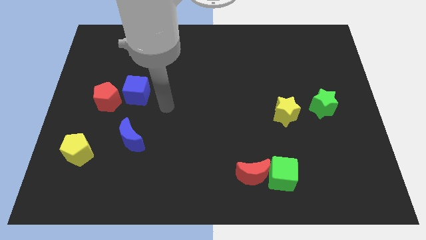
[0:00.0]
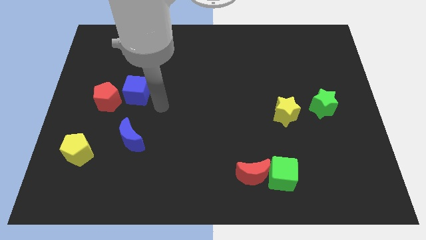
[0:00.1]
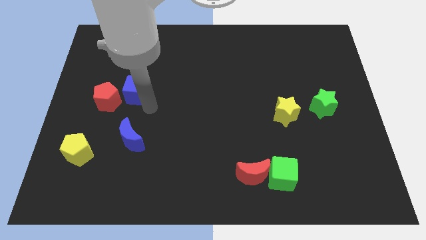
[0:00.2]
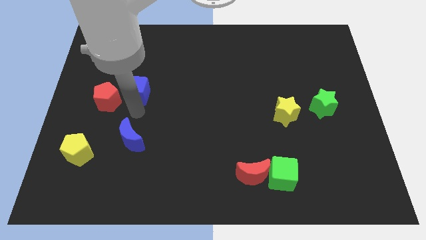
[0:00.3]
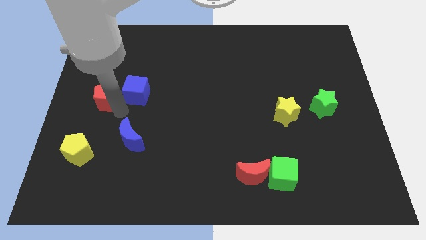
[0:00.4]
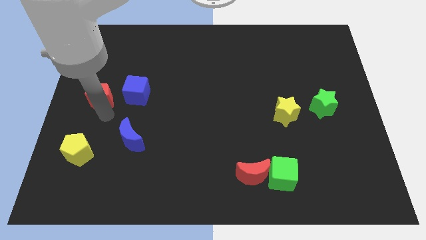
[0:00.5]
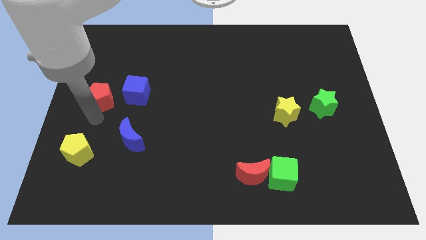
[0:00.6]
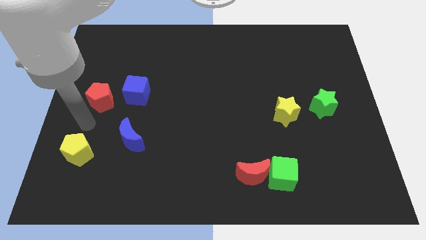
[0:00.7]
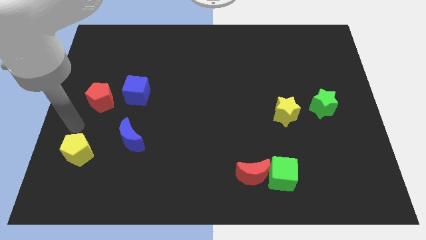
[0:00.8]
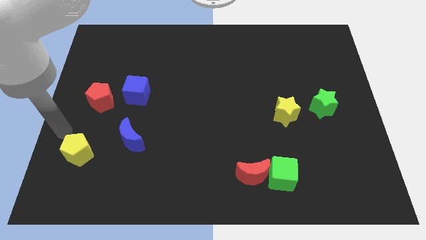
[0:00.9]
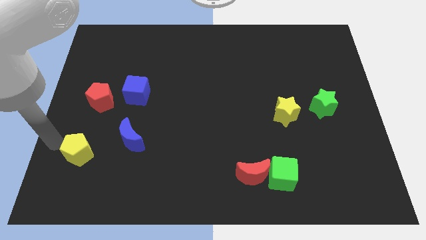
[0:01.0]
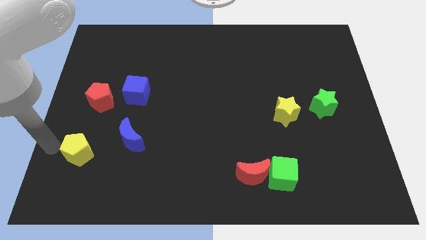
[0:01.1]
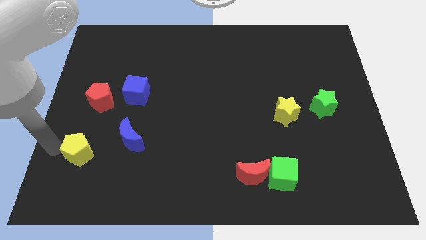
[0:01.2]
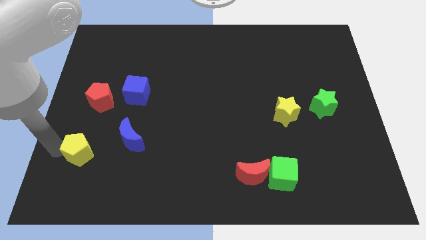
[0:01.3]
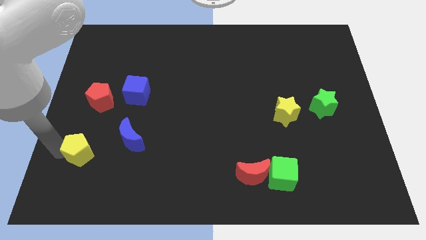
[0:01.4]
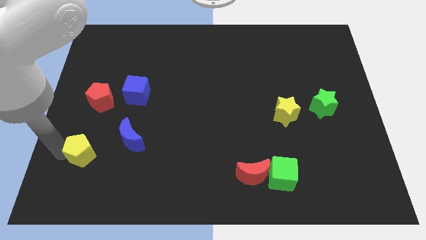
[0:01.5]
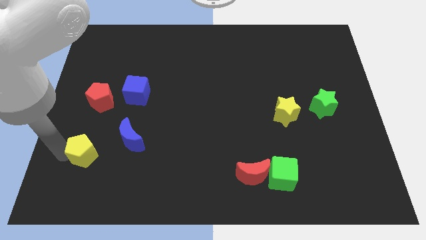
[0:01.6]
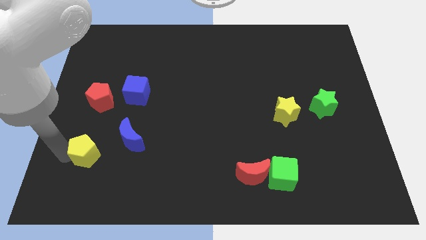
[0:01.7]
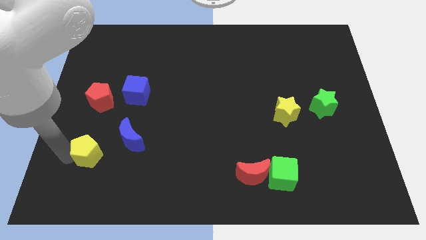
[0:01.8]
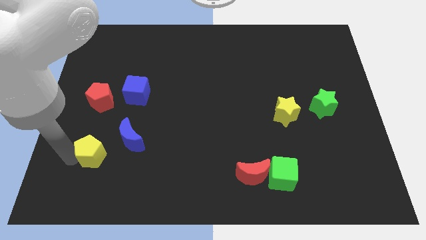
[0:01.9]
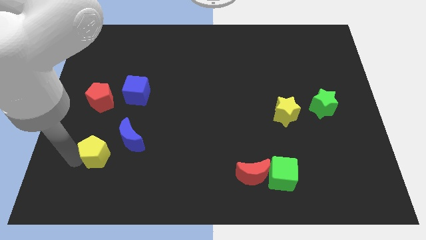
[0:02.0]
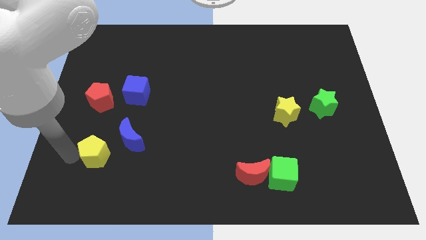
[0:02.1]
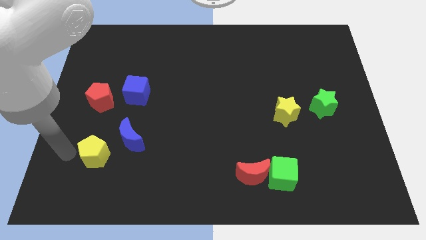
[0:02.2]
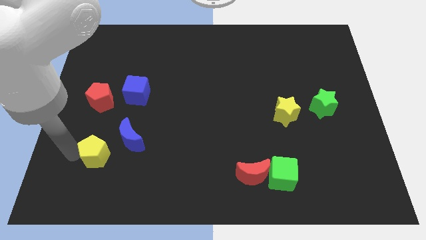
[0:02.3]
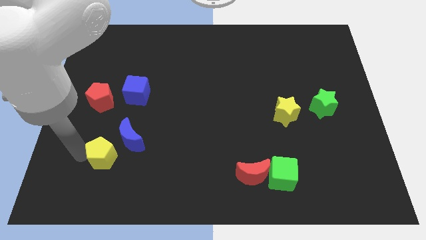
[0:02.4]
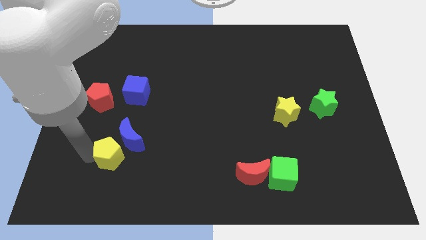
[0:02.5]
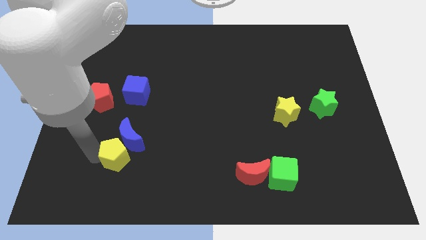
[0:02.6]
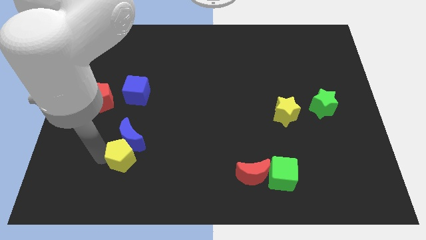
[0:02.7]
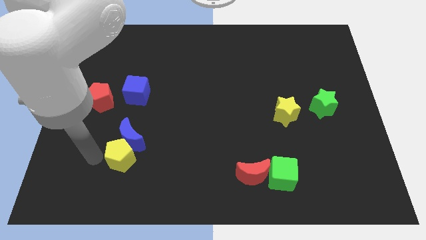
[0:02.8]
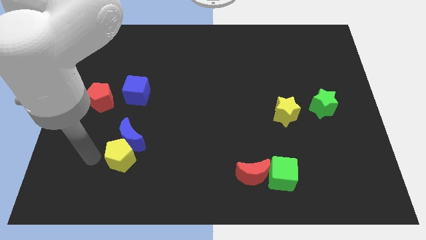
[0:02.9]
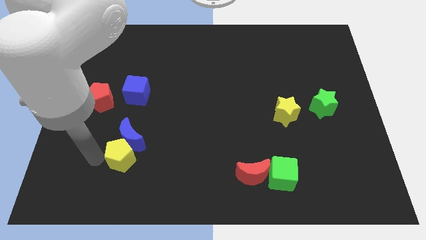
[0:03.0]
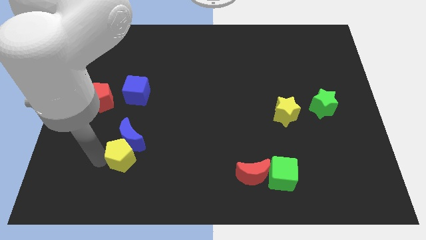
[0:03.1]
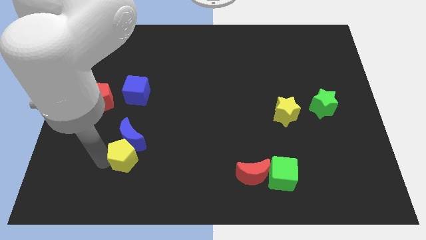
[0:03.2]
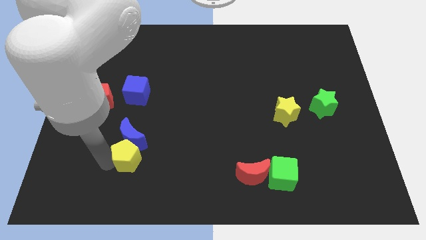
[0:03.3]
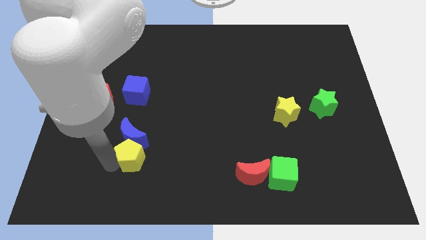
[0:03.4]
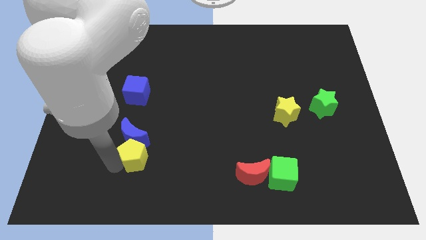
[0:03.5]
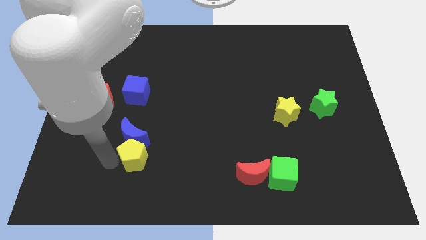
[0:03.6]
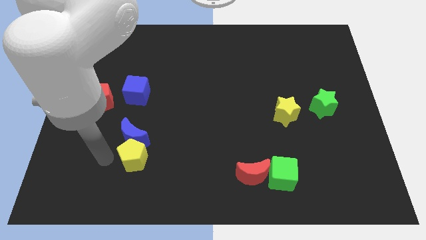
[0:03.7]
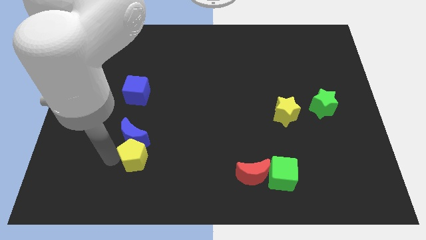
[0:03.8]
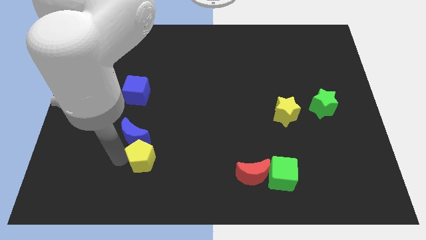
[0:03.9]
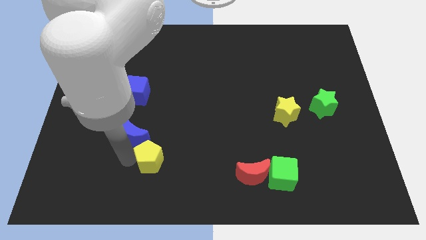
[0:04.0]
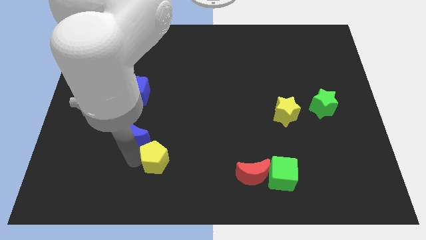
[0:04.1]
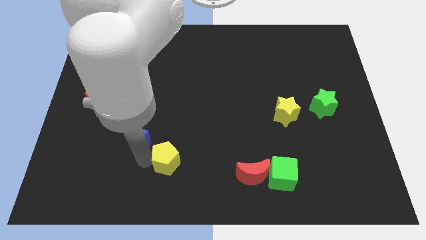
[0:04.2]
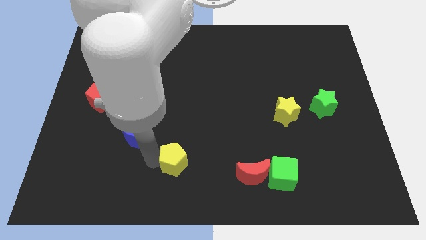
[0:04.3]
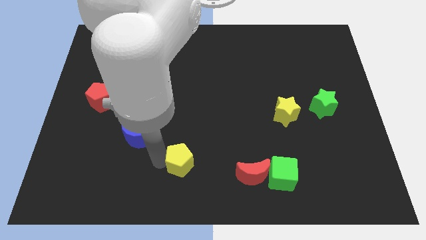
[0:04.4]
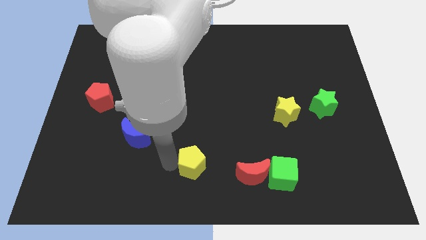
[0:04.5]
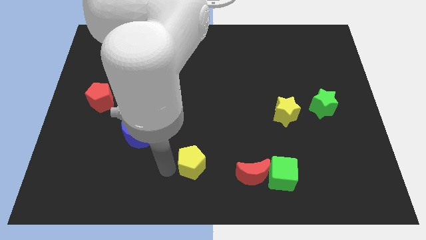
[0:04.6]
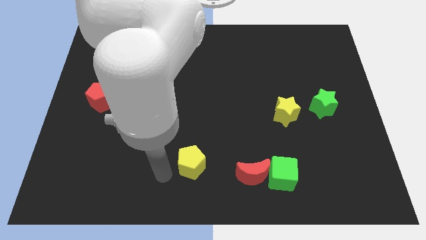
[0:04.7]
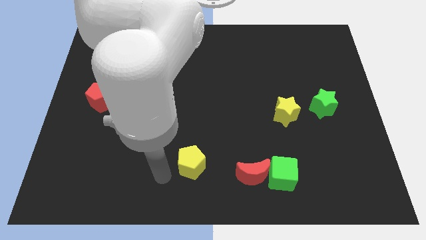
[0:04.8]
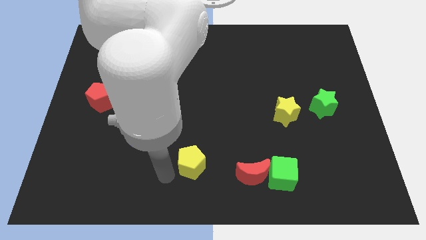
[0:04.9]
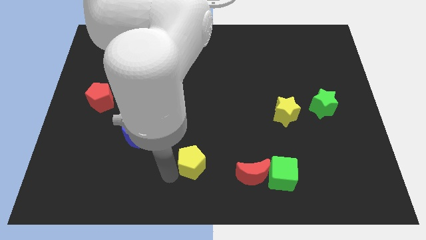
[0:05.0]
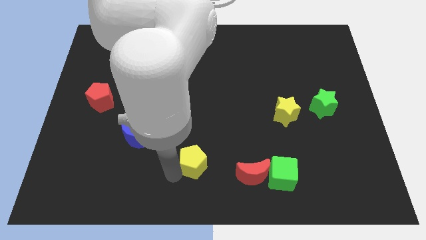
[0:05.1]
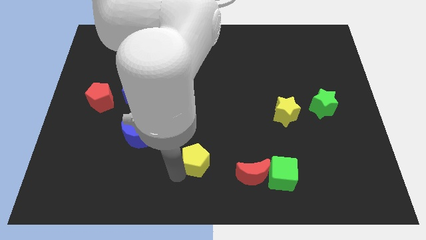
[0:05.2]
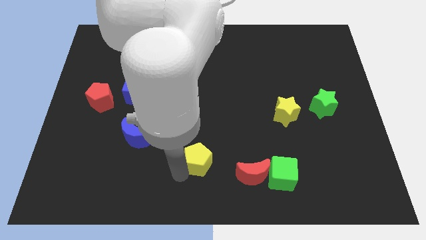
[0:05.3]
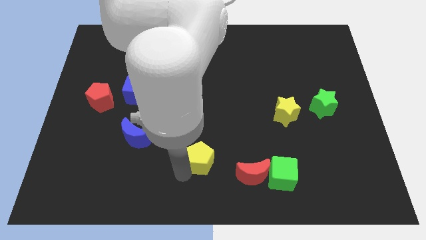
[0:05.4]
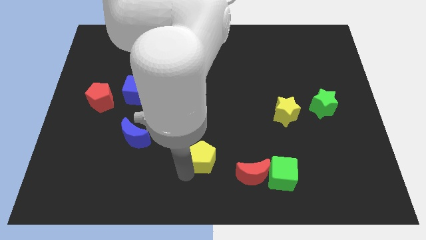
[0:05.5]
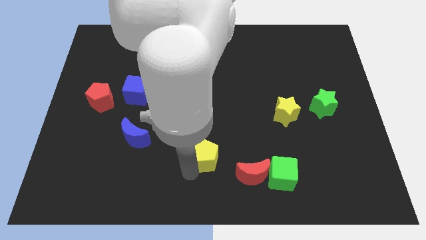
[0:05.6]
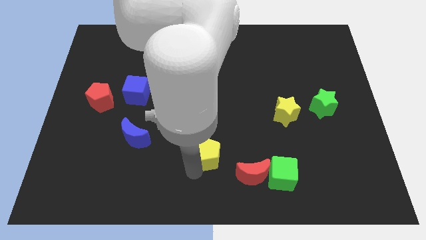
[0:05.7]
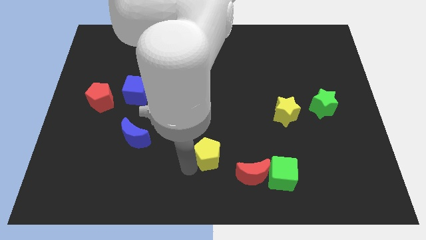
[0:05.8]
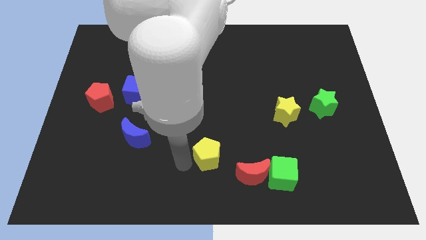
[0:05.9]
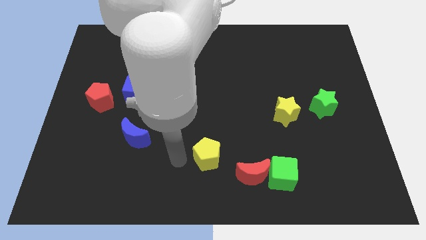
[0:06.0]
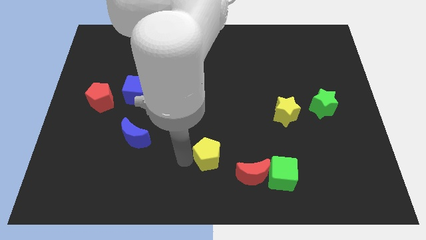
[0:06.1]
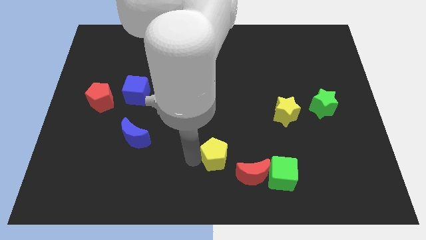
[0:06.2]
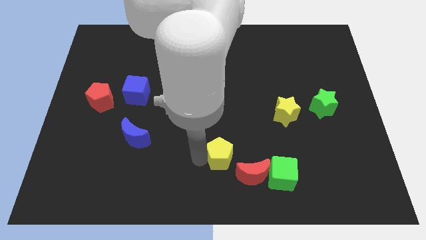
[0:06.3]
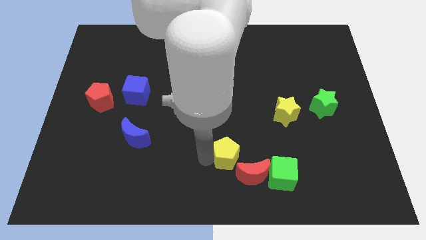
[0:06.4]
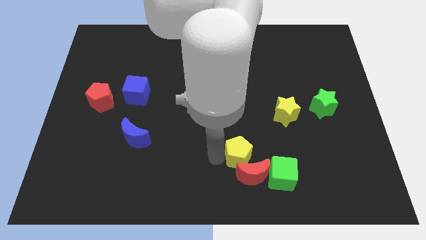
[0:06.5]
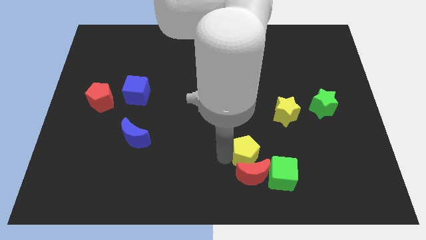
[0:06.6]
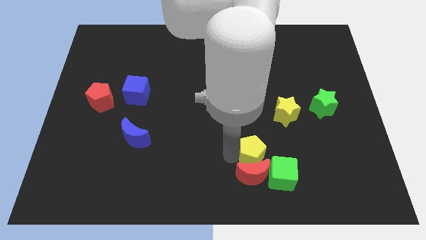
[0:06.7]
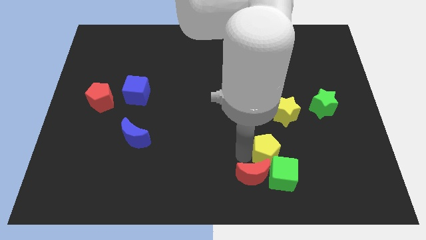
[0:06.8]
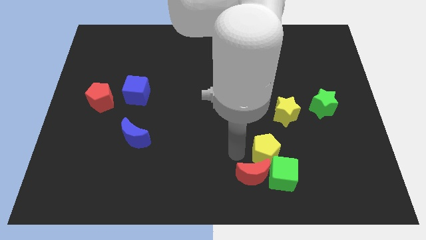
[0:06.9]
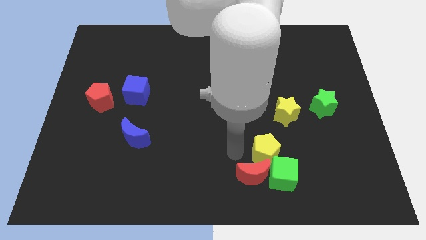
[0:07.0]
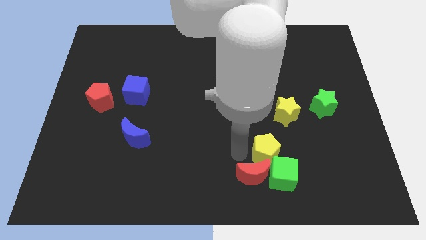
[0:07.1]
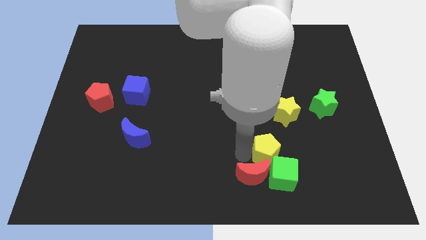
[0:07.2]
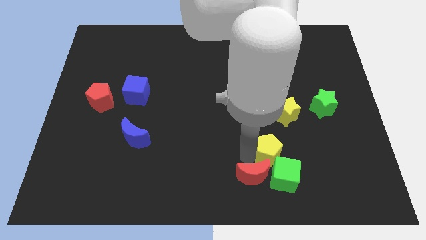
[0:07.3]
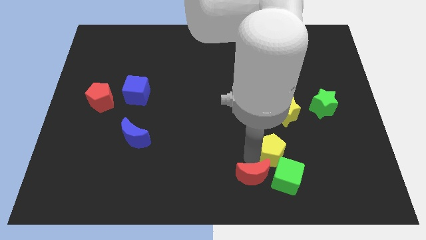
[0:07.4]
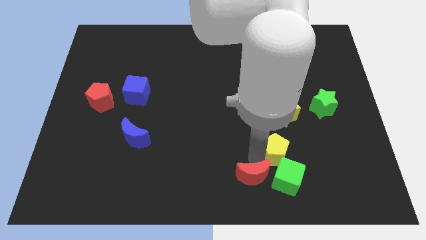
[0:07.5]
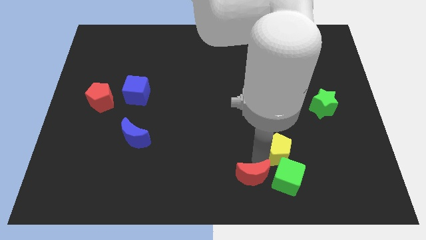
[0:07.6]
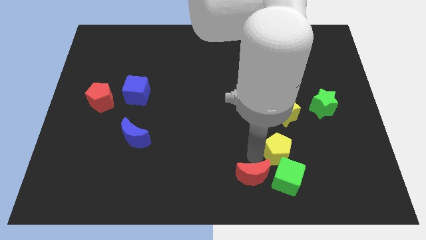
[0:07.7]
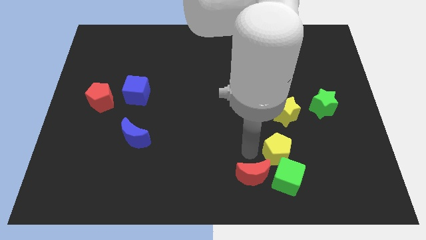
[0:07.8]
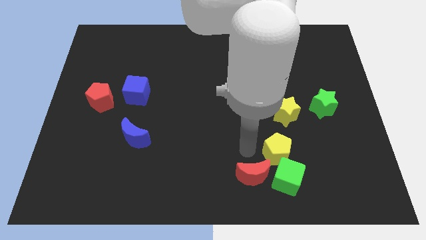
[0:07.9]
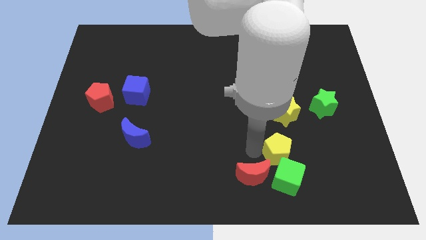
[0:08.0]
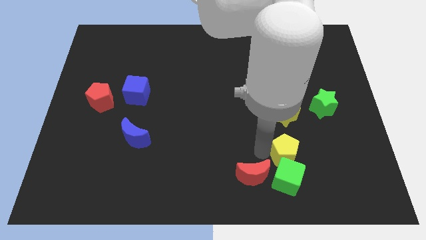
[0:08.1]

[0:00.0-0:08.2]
slide the yellow pentagon to the top right of the green cube
